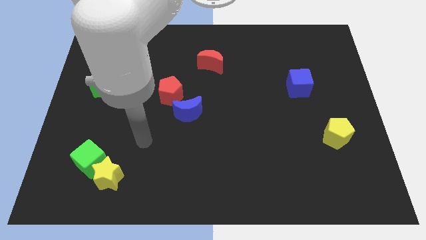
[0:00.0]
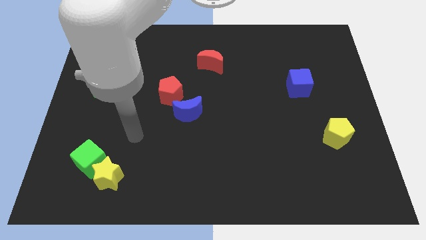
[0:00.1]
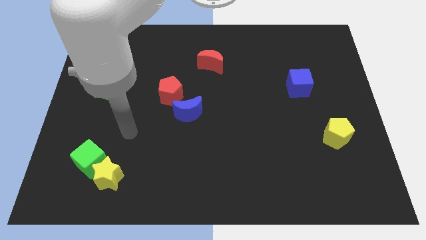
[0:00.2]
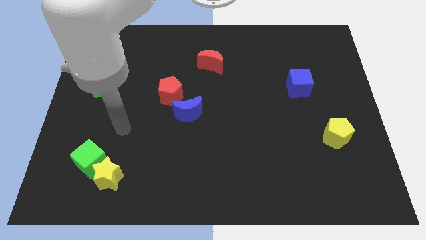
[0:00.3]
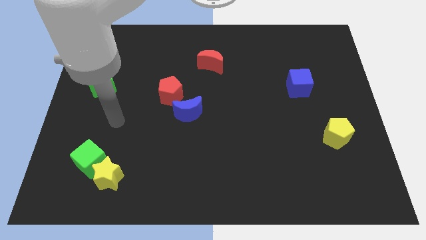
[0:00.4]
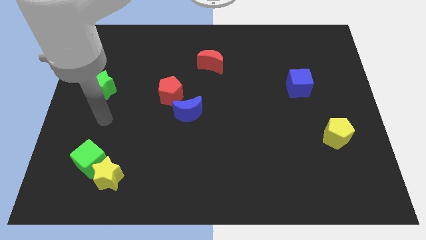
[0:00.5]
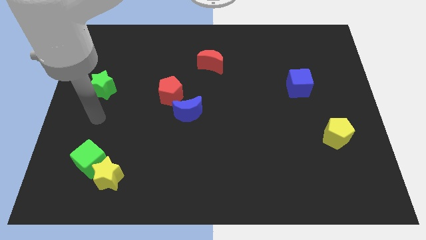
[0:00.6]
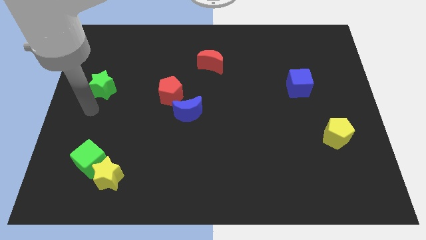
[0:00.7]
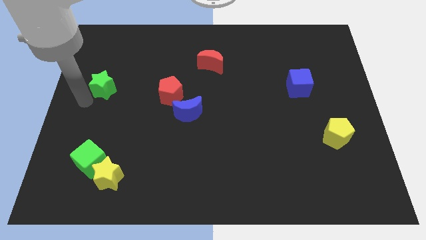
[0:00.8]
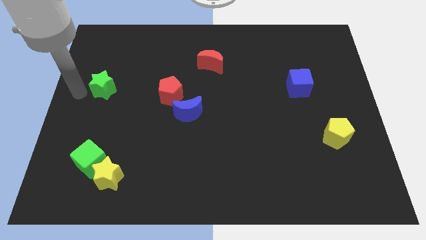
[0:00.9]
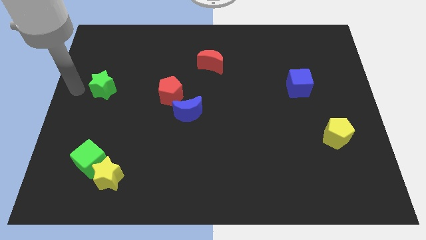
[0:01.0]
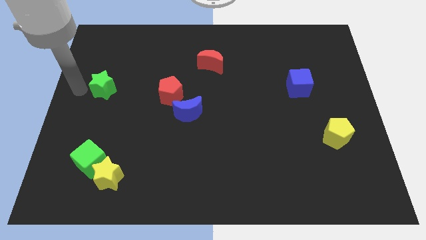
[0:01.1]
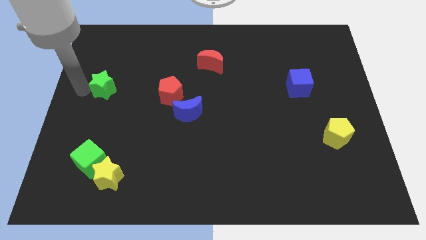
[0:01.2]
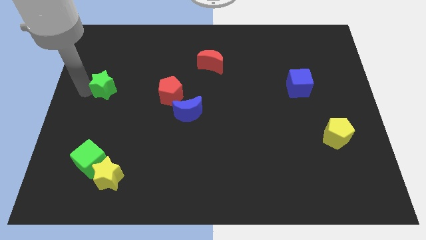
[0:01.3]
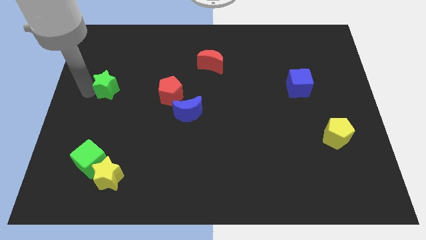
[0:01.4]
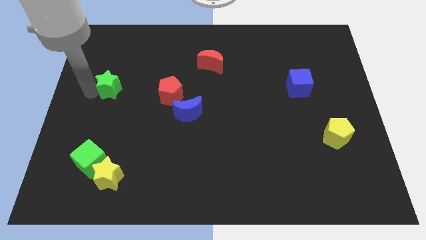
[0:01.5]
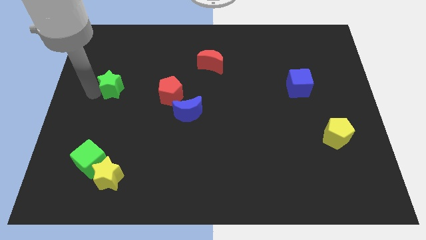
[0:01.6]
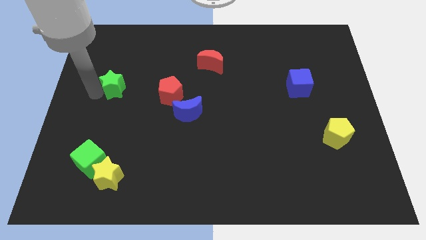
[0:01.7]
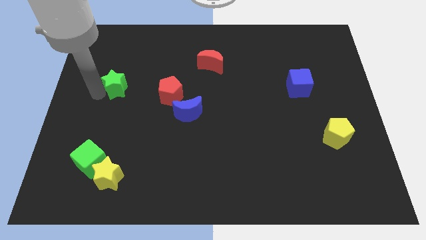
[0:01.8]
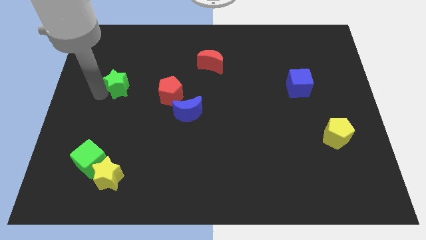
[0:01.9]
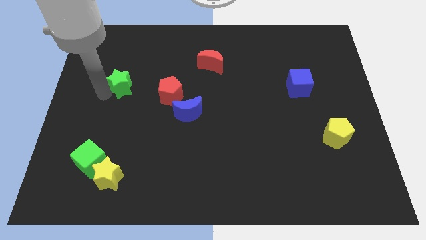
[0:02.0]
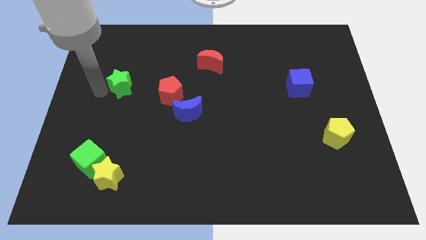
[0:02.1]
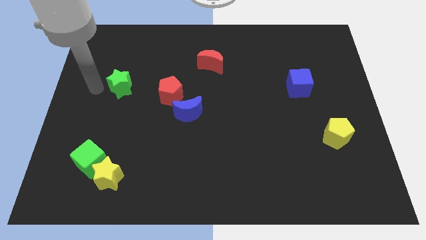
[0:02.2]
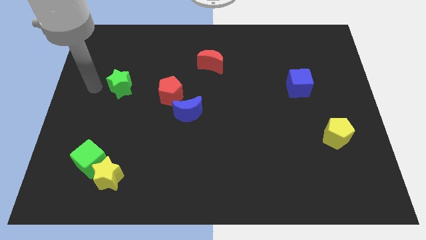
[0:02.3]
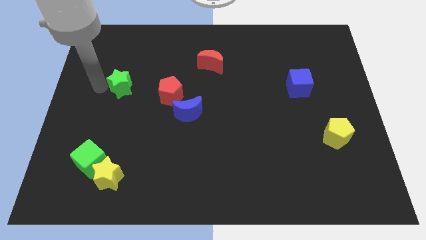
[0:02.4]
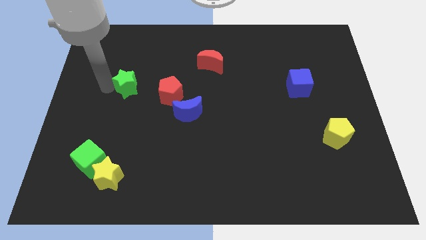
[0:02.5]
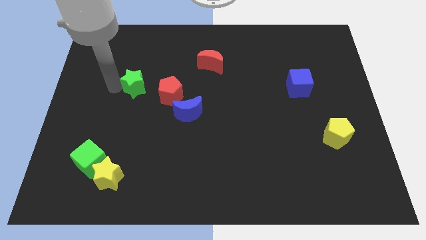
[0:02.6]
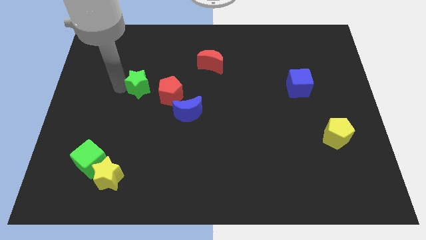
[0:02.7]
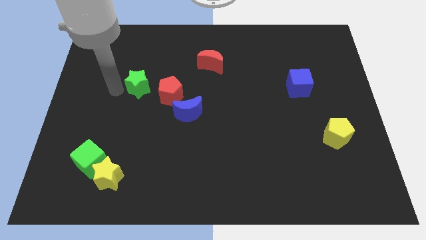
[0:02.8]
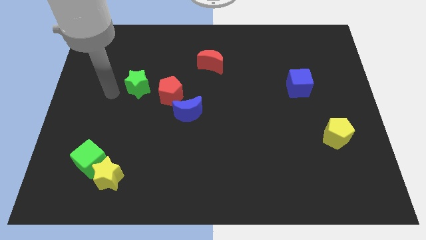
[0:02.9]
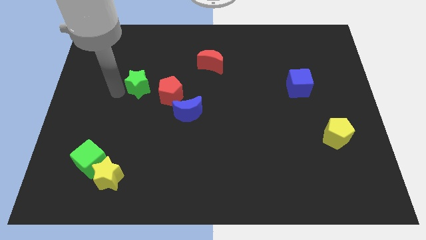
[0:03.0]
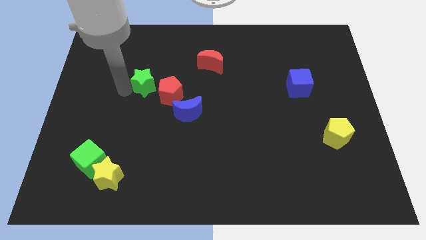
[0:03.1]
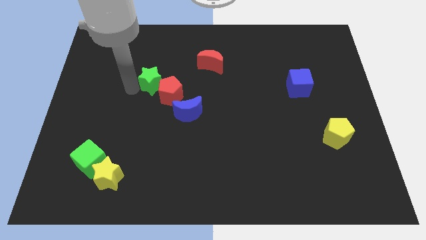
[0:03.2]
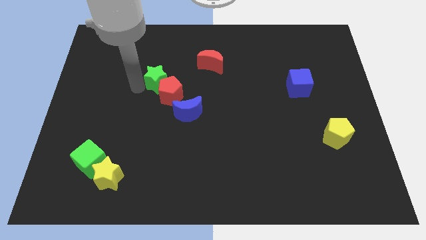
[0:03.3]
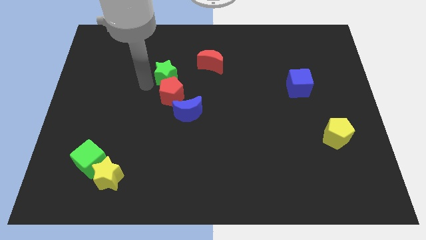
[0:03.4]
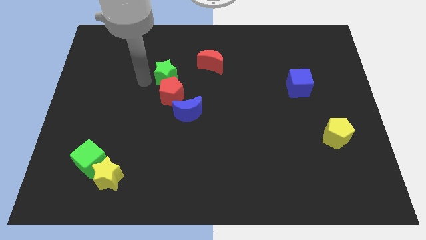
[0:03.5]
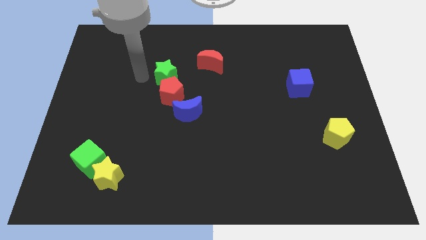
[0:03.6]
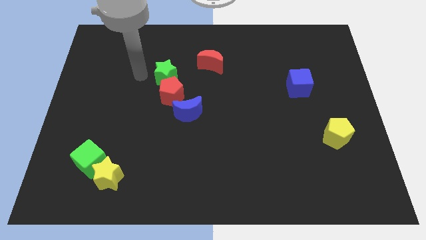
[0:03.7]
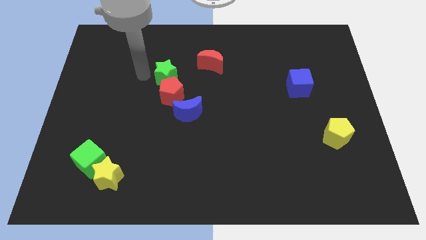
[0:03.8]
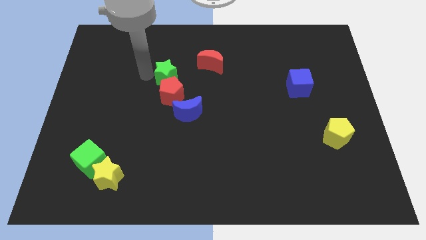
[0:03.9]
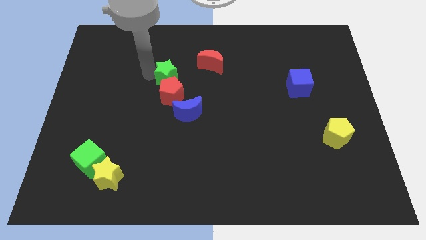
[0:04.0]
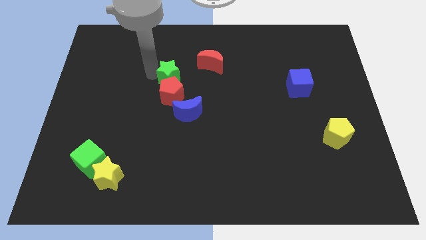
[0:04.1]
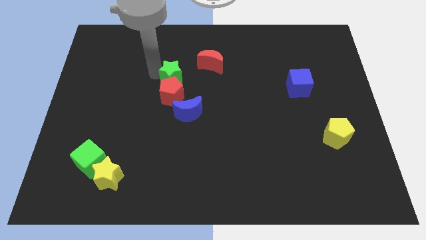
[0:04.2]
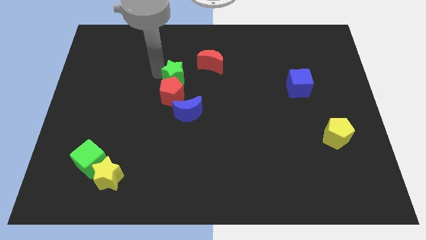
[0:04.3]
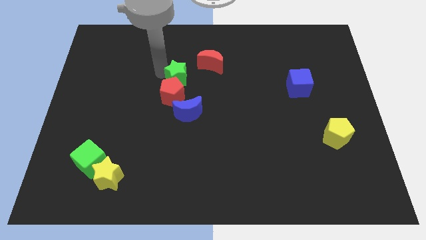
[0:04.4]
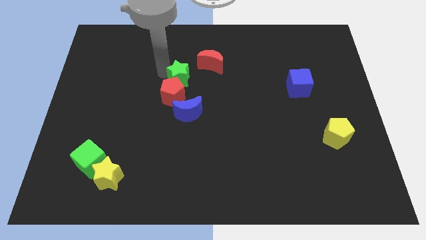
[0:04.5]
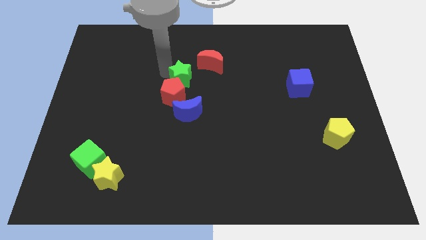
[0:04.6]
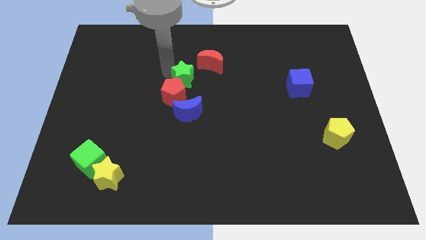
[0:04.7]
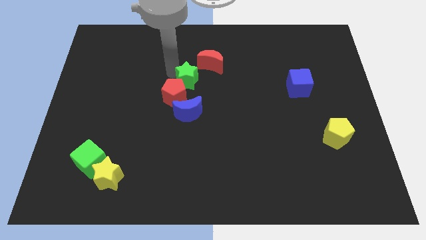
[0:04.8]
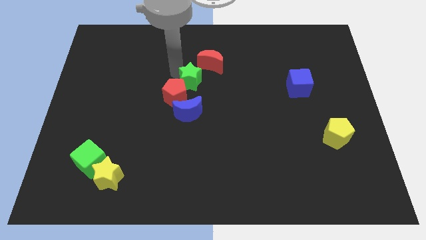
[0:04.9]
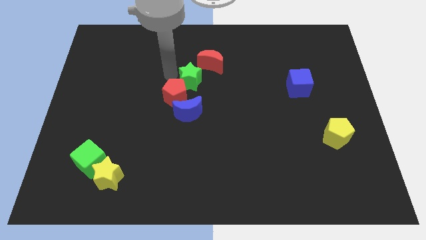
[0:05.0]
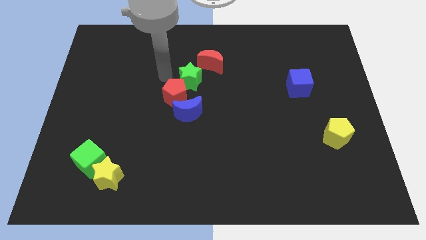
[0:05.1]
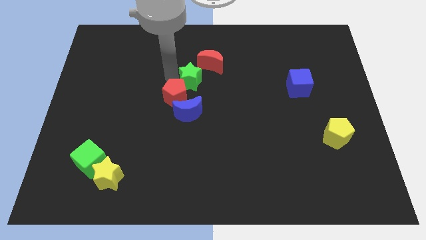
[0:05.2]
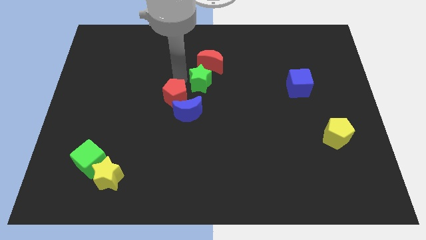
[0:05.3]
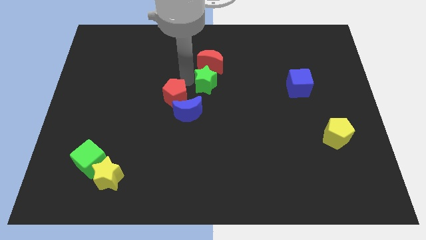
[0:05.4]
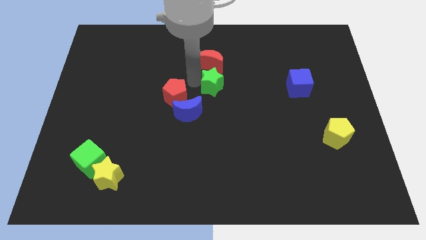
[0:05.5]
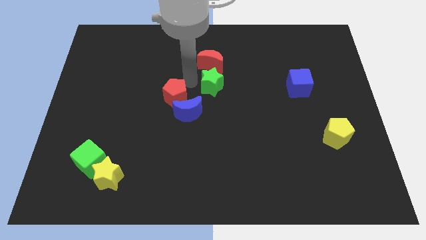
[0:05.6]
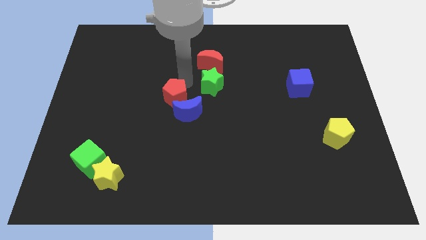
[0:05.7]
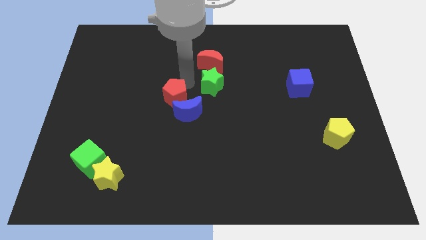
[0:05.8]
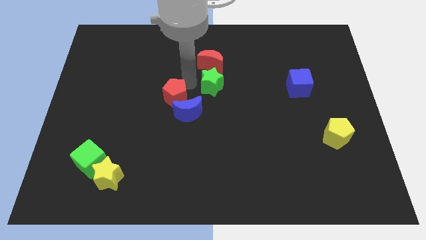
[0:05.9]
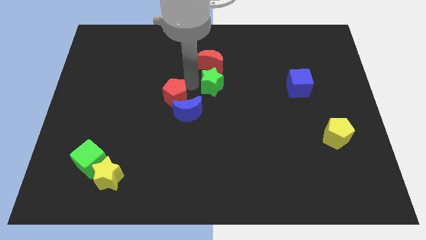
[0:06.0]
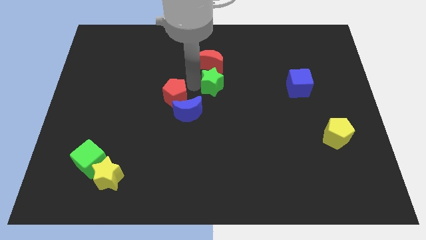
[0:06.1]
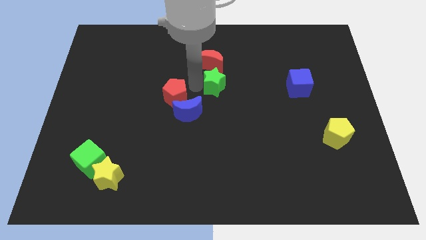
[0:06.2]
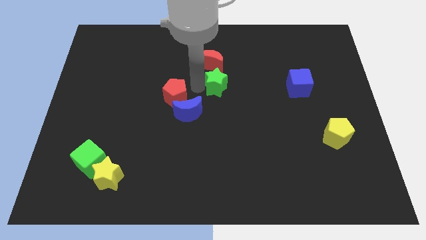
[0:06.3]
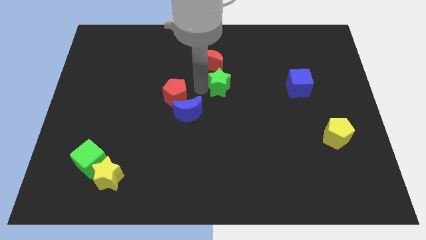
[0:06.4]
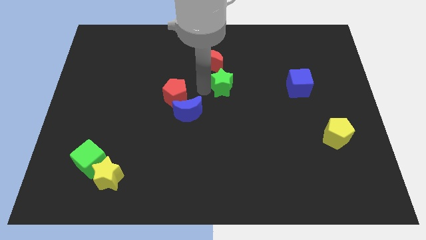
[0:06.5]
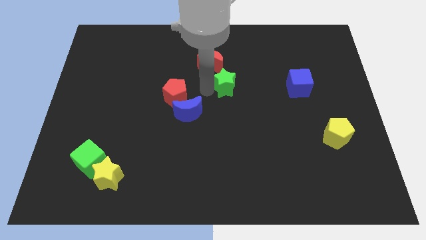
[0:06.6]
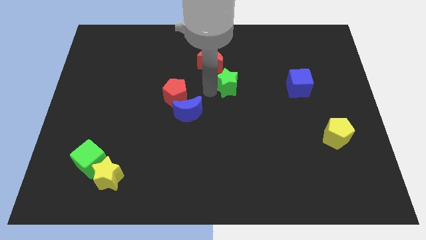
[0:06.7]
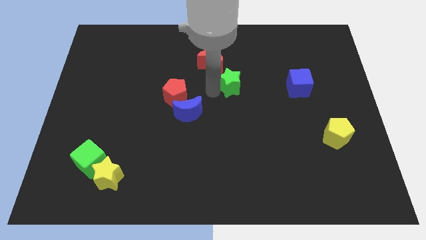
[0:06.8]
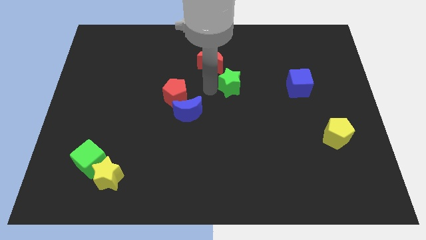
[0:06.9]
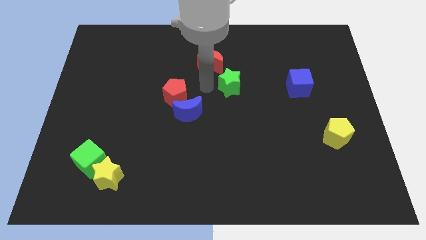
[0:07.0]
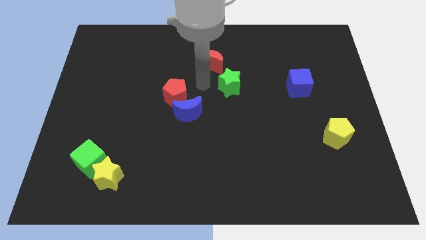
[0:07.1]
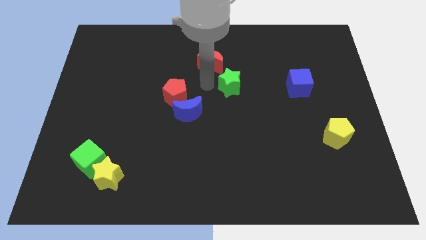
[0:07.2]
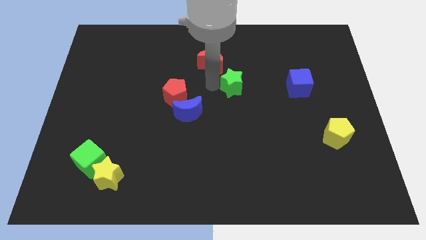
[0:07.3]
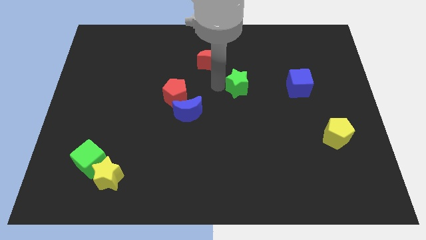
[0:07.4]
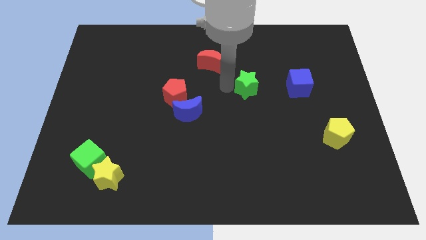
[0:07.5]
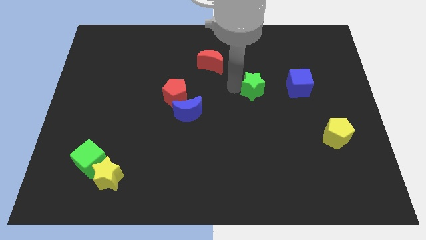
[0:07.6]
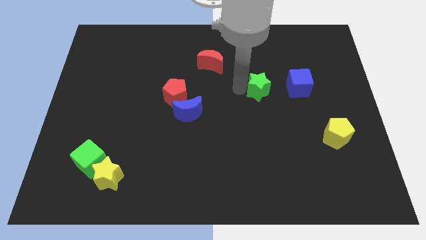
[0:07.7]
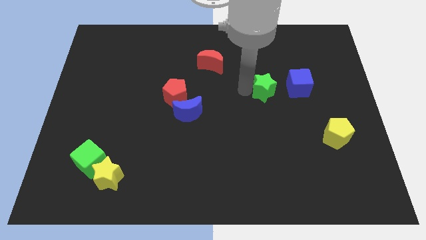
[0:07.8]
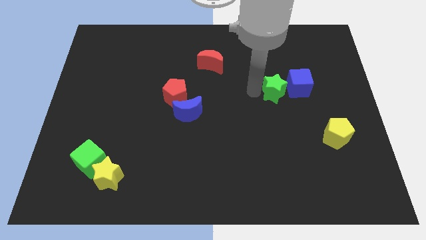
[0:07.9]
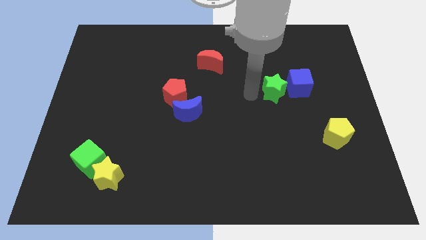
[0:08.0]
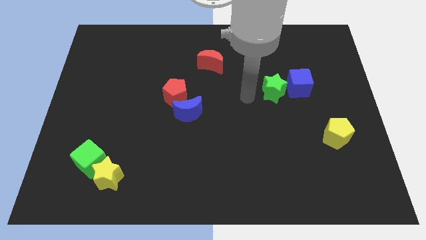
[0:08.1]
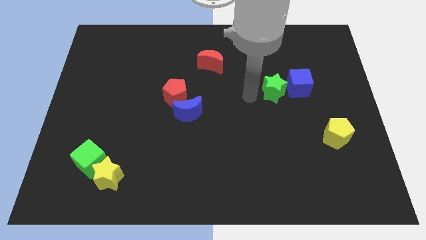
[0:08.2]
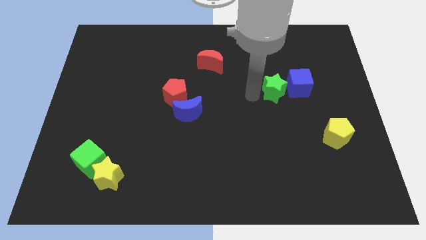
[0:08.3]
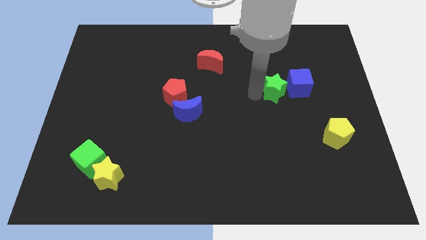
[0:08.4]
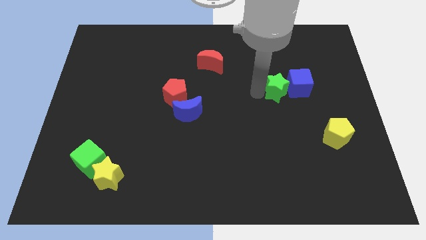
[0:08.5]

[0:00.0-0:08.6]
put the green star towards the blue cube

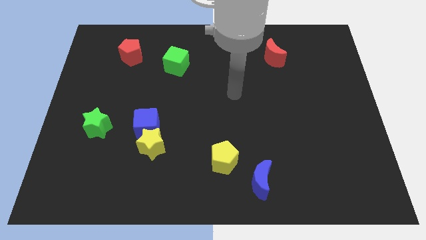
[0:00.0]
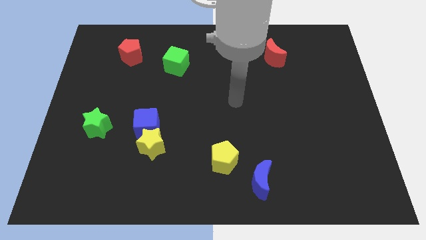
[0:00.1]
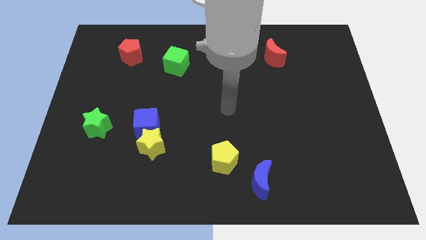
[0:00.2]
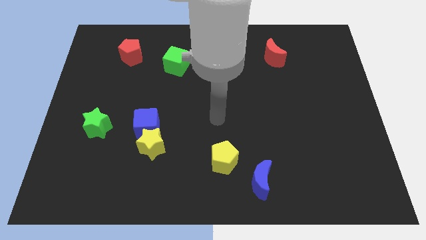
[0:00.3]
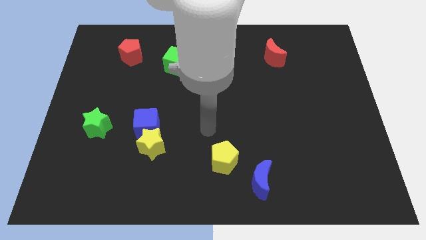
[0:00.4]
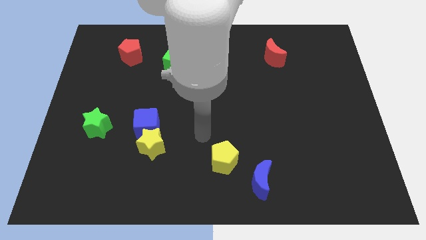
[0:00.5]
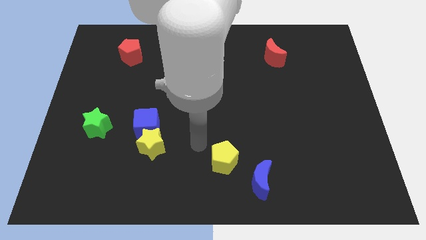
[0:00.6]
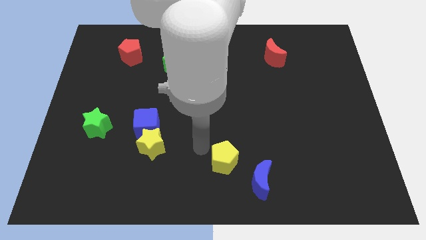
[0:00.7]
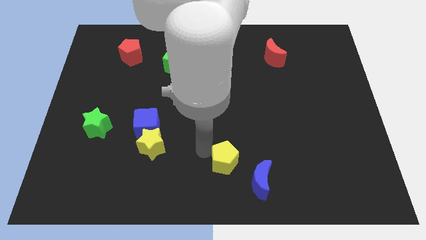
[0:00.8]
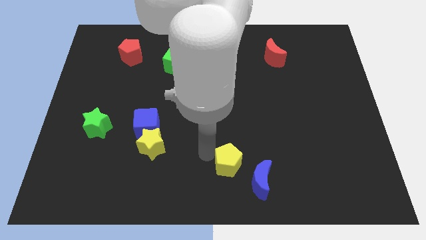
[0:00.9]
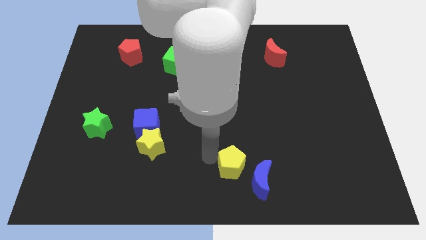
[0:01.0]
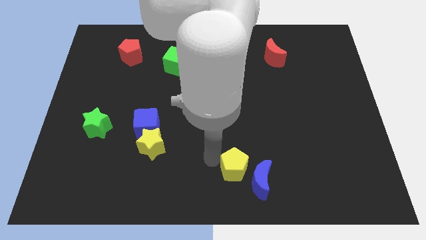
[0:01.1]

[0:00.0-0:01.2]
slide the yellow pentagon towards the blue moon
